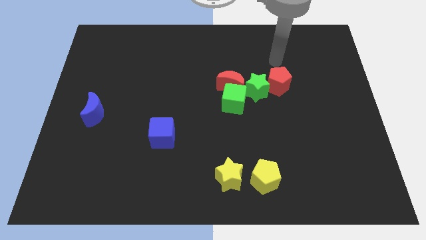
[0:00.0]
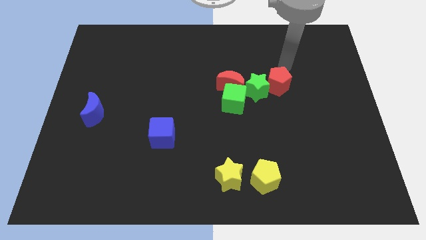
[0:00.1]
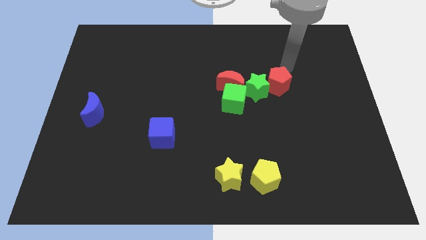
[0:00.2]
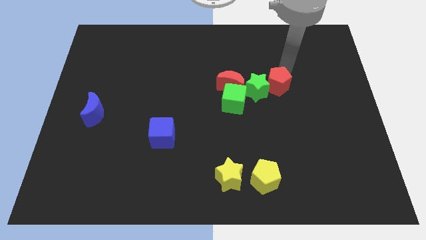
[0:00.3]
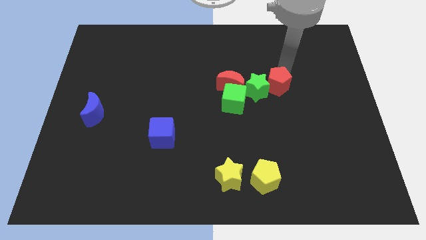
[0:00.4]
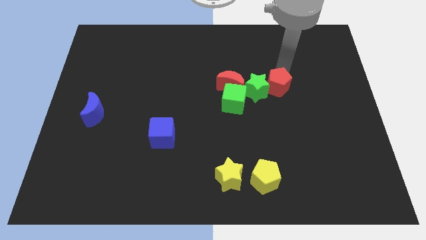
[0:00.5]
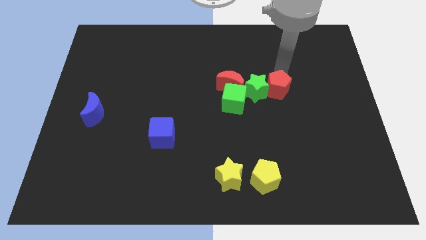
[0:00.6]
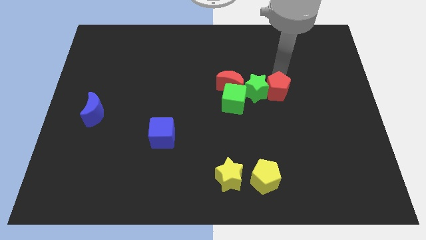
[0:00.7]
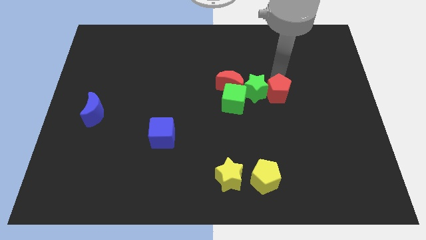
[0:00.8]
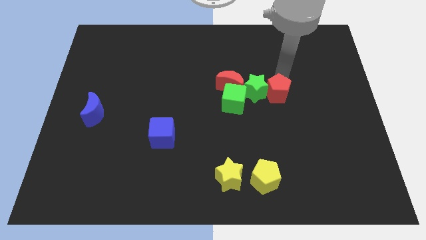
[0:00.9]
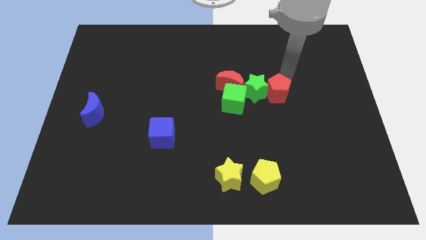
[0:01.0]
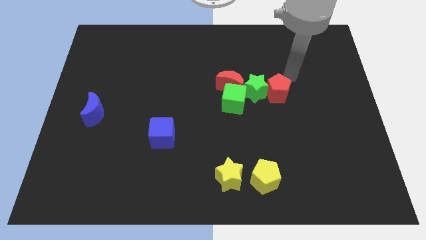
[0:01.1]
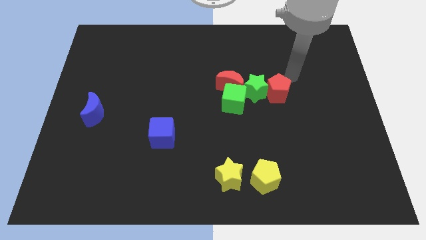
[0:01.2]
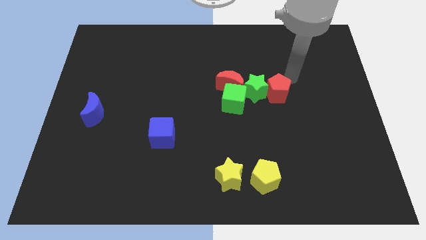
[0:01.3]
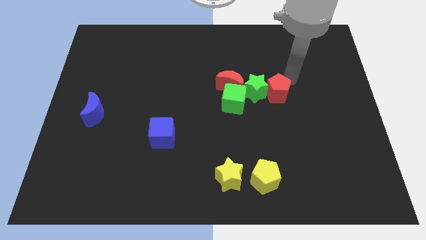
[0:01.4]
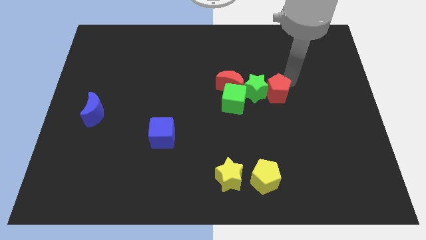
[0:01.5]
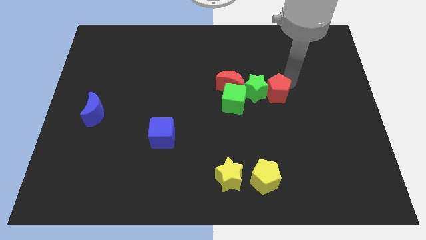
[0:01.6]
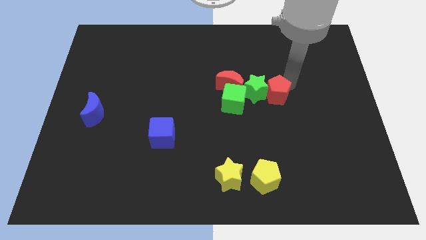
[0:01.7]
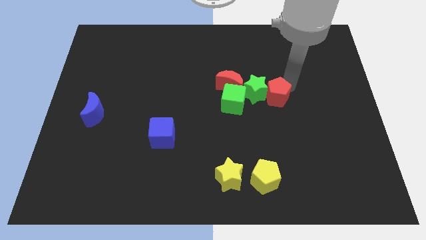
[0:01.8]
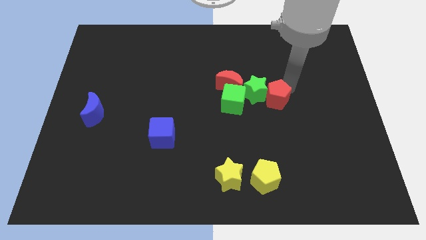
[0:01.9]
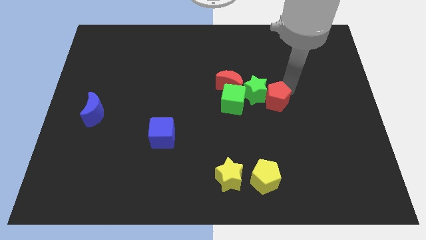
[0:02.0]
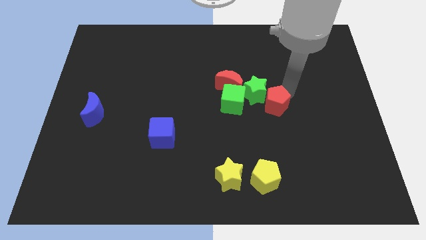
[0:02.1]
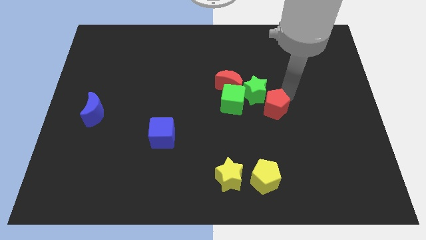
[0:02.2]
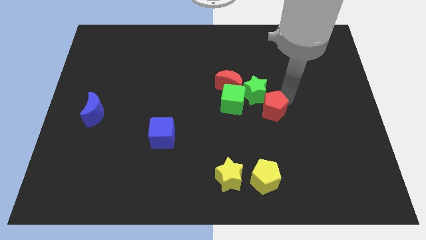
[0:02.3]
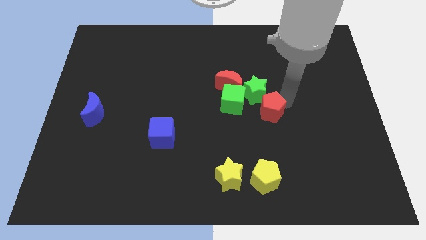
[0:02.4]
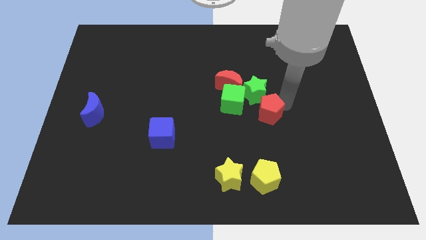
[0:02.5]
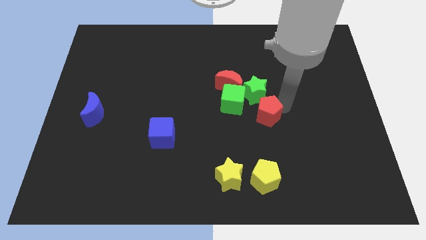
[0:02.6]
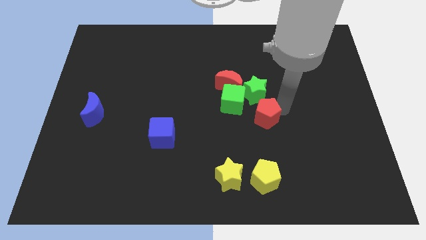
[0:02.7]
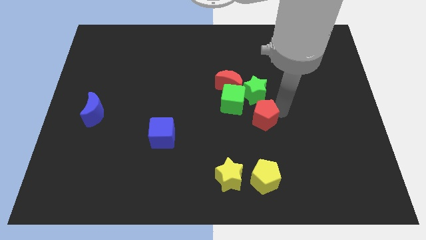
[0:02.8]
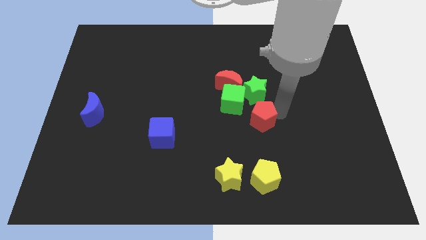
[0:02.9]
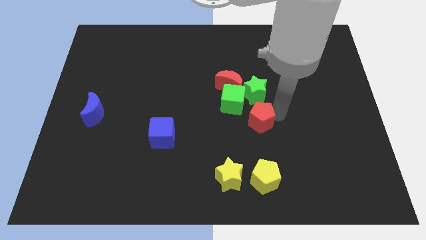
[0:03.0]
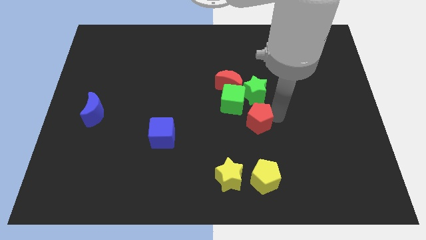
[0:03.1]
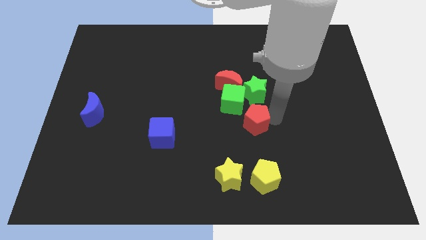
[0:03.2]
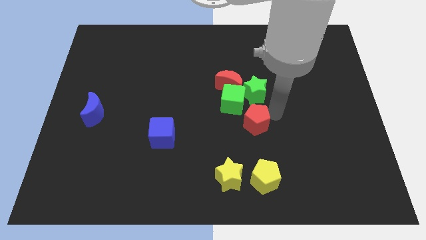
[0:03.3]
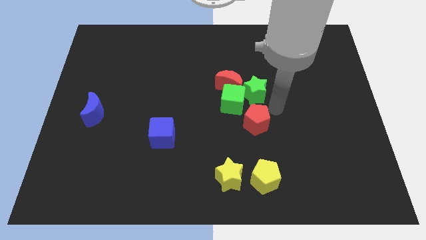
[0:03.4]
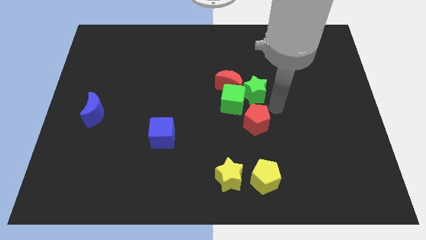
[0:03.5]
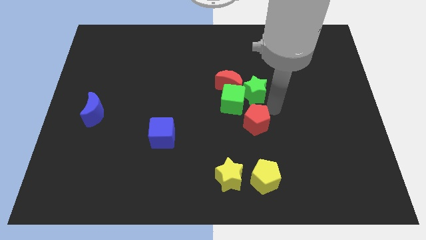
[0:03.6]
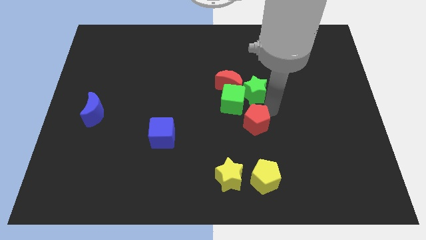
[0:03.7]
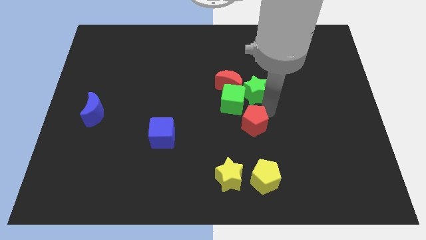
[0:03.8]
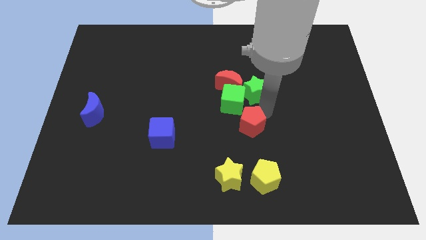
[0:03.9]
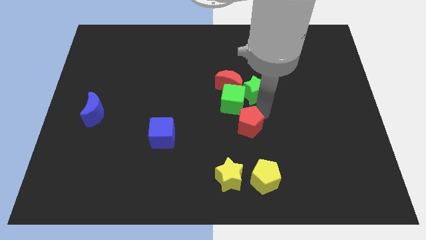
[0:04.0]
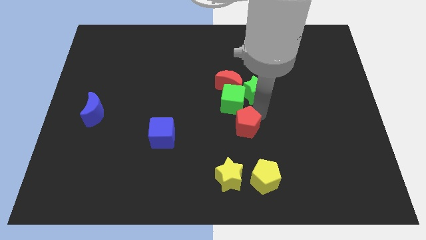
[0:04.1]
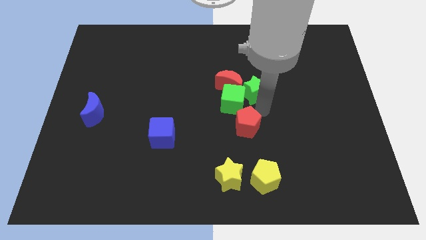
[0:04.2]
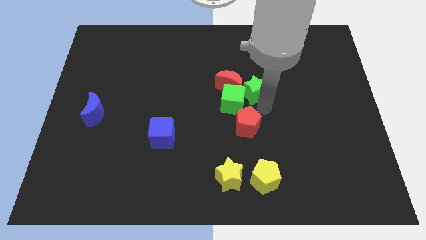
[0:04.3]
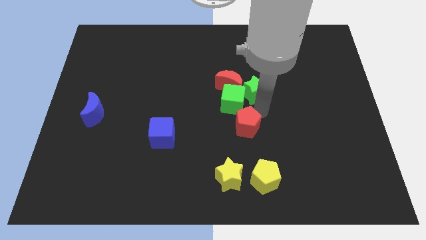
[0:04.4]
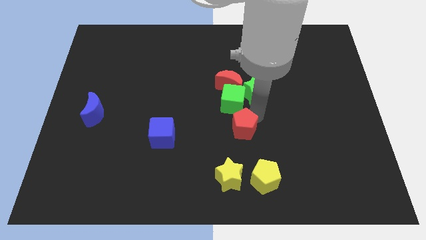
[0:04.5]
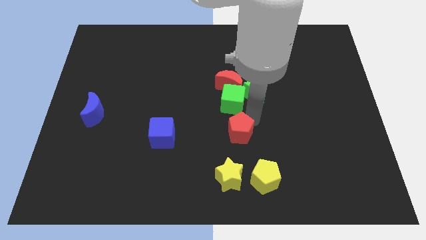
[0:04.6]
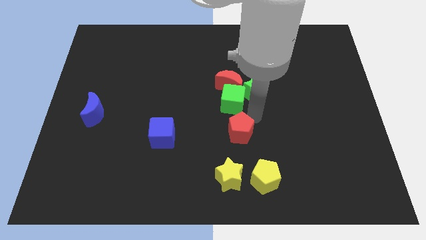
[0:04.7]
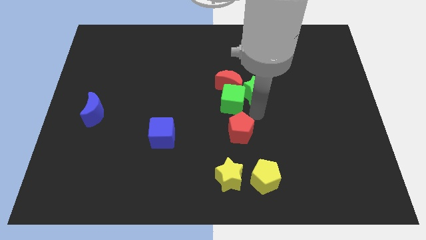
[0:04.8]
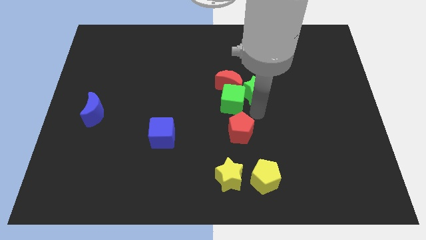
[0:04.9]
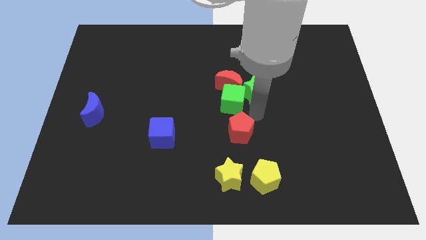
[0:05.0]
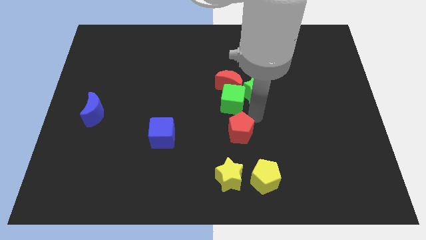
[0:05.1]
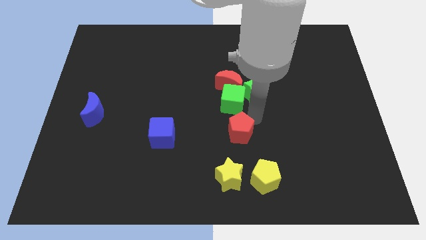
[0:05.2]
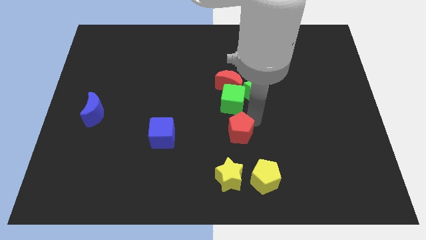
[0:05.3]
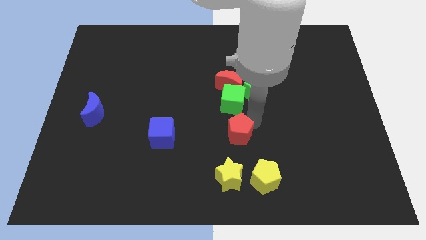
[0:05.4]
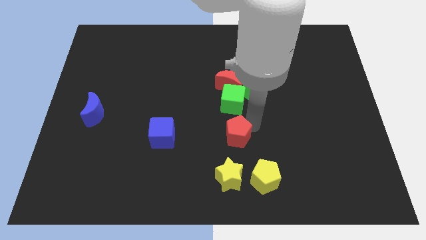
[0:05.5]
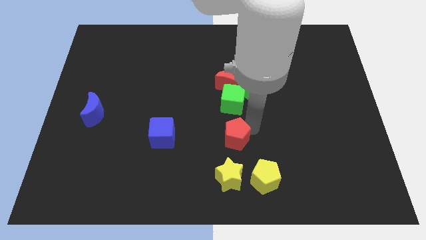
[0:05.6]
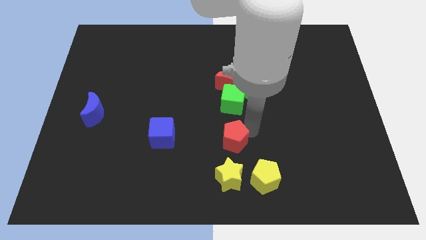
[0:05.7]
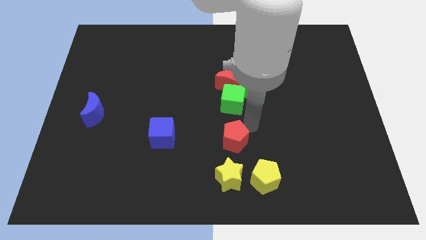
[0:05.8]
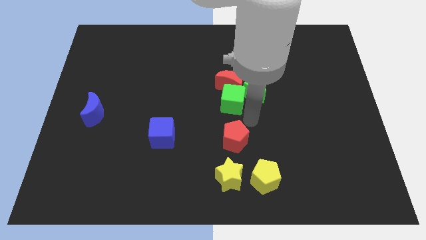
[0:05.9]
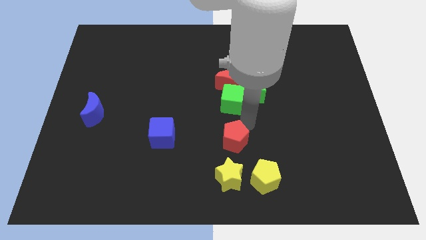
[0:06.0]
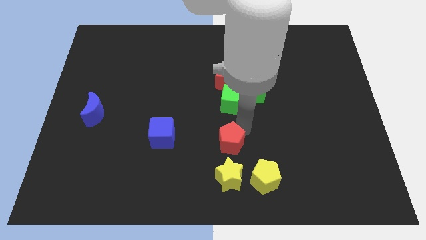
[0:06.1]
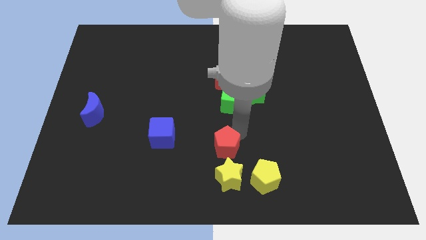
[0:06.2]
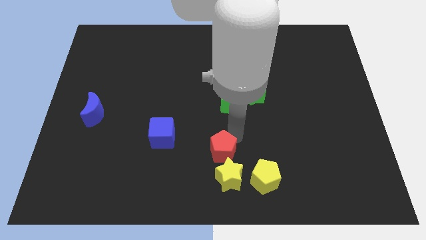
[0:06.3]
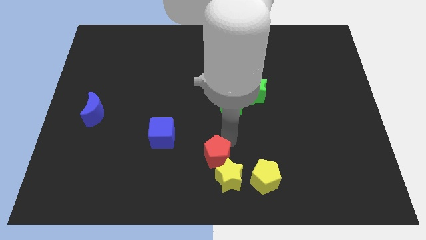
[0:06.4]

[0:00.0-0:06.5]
push the red pentagon towards the yellow star

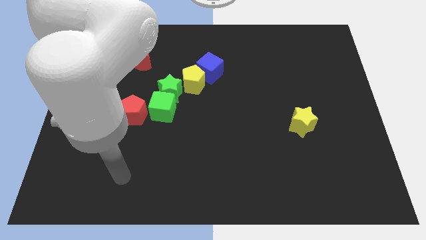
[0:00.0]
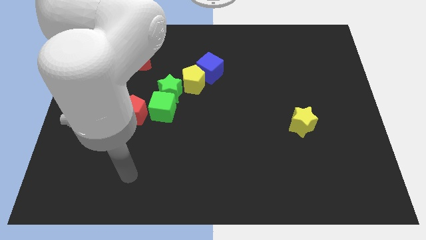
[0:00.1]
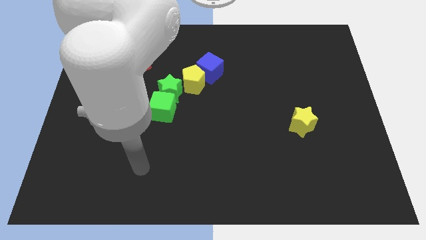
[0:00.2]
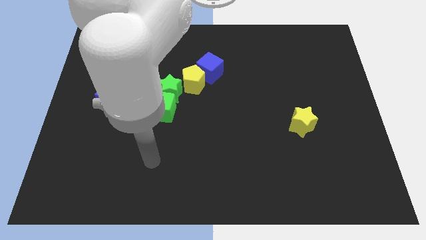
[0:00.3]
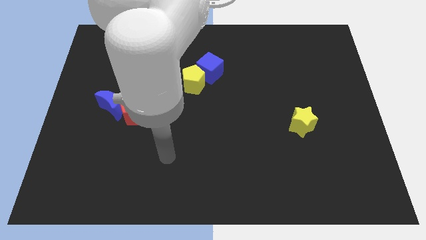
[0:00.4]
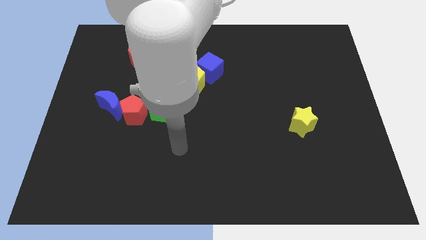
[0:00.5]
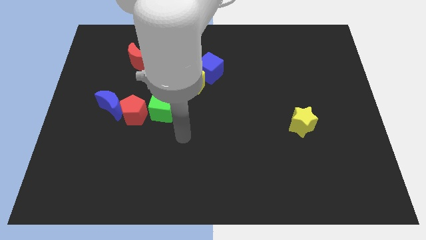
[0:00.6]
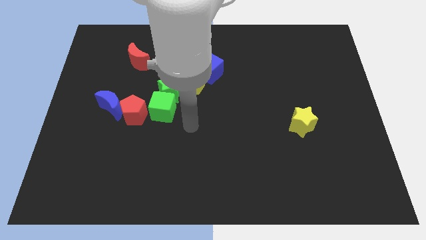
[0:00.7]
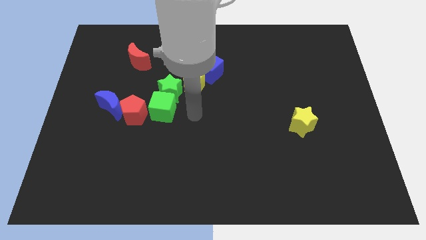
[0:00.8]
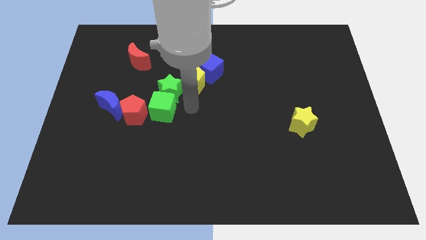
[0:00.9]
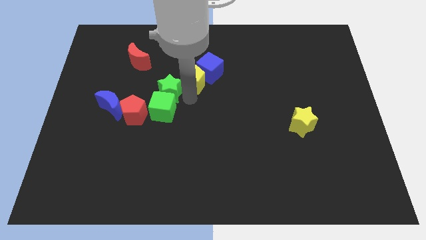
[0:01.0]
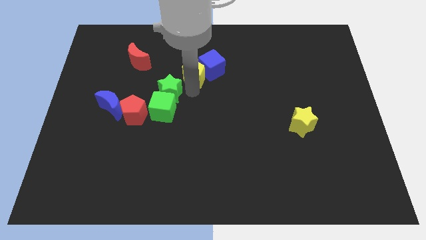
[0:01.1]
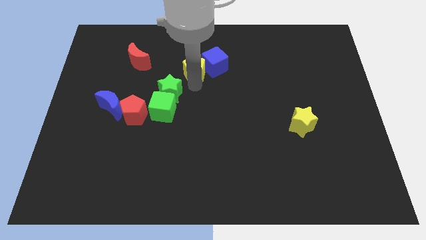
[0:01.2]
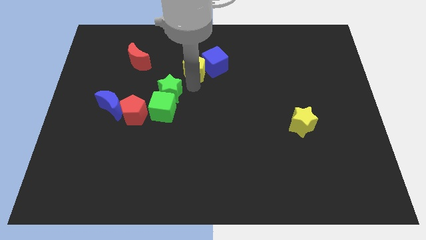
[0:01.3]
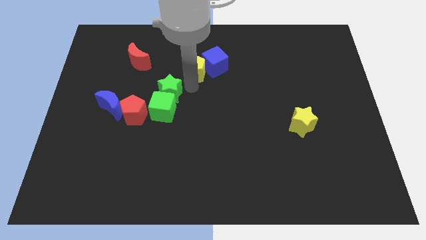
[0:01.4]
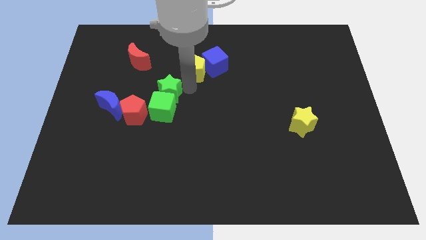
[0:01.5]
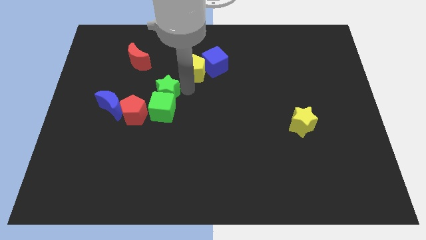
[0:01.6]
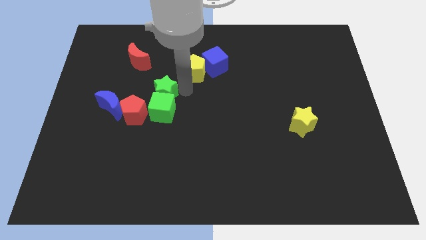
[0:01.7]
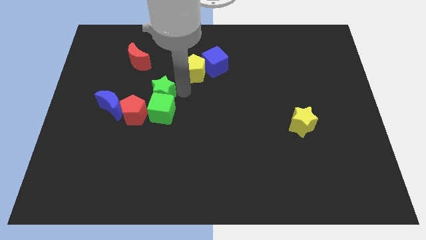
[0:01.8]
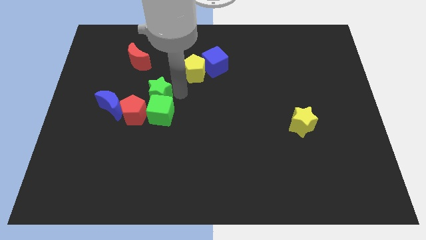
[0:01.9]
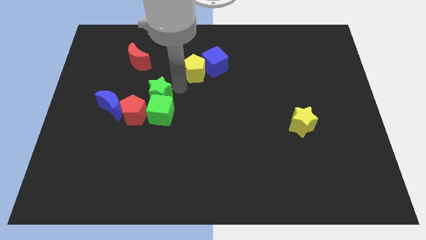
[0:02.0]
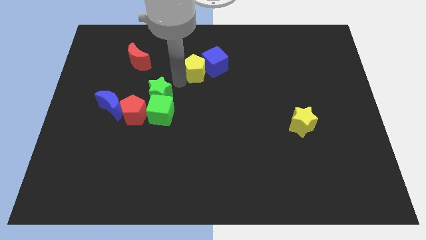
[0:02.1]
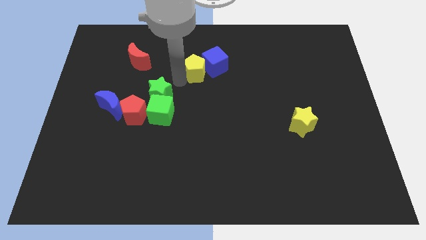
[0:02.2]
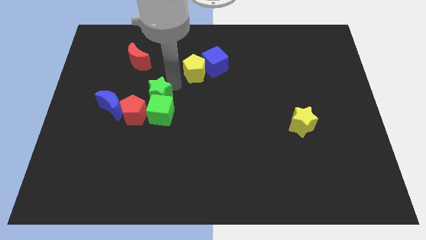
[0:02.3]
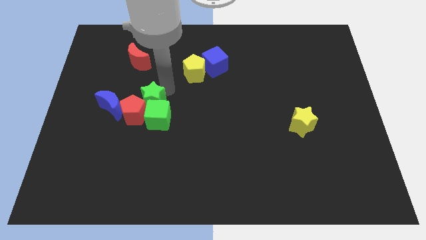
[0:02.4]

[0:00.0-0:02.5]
push the green star to the red pentagon
